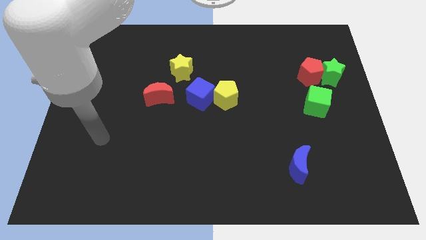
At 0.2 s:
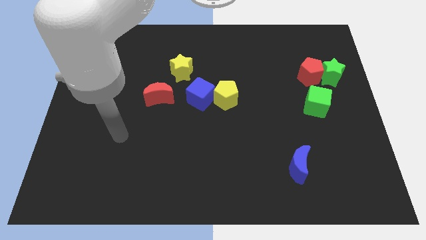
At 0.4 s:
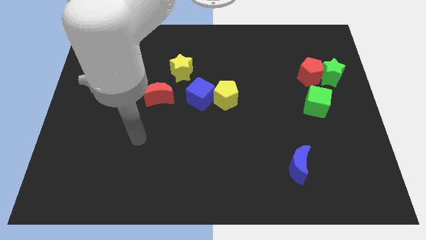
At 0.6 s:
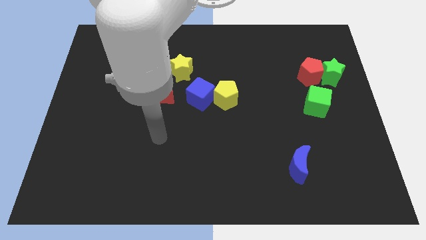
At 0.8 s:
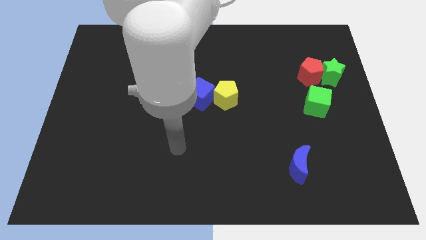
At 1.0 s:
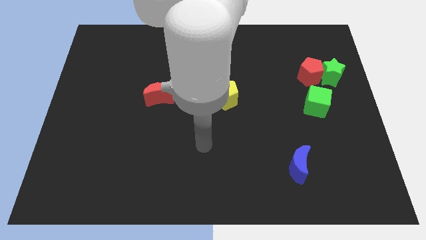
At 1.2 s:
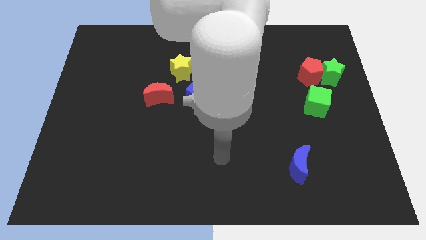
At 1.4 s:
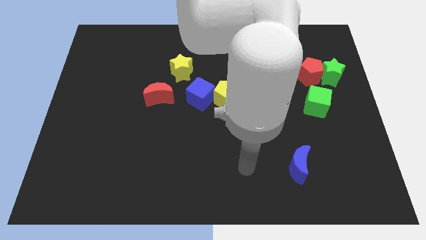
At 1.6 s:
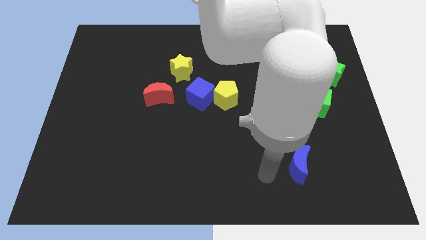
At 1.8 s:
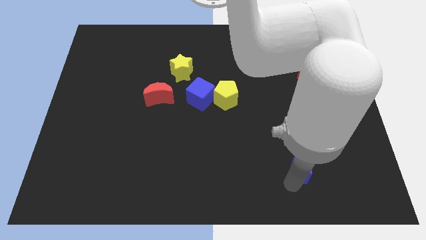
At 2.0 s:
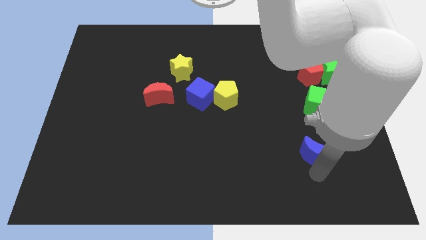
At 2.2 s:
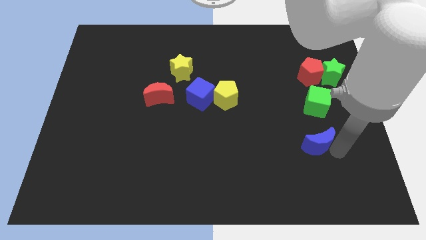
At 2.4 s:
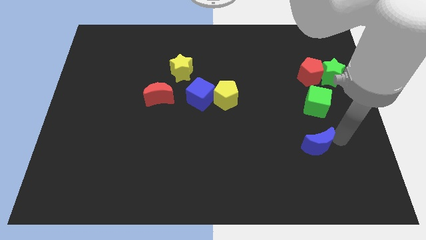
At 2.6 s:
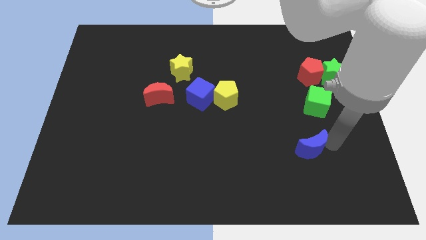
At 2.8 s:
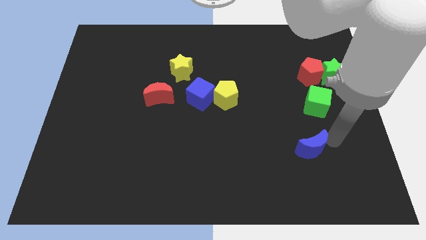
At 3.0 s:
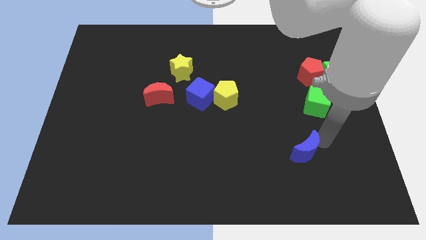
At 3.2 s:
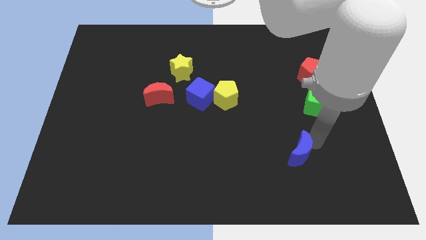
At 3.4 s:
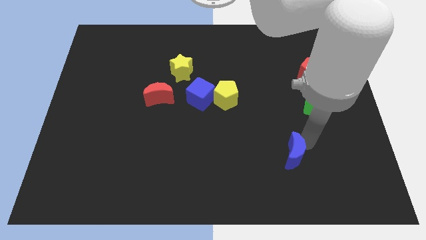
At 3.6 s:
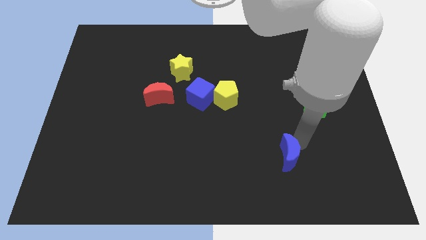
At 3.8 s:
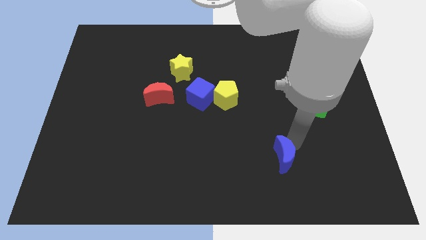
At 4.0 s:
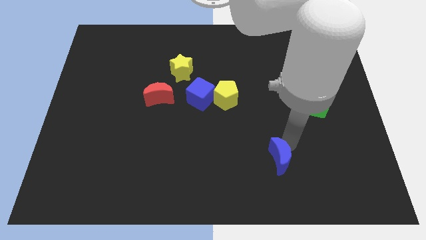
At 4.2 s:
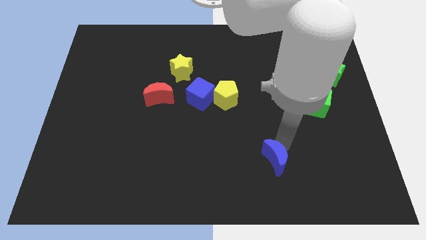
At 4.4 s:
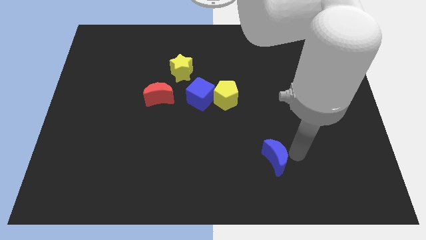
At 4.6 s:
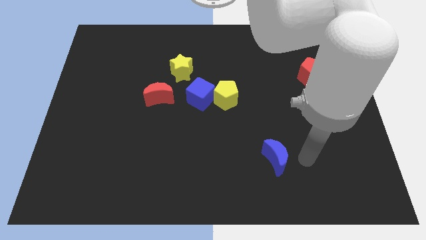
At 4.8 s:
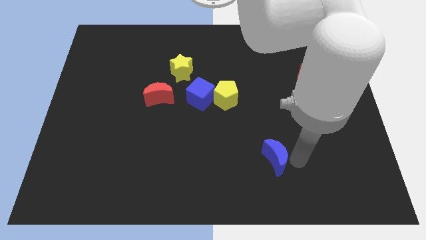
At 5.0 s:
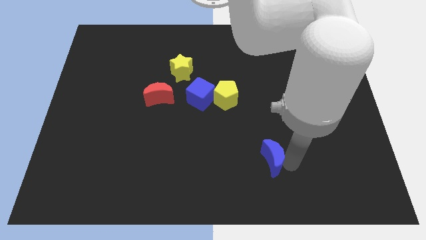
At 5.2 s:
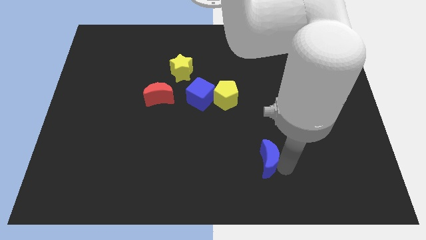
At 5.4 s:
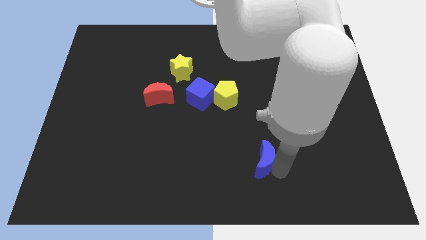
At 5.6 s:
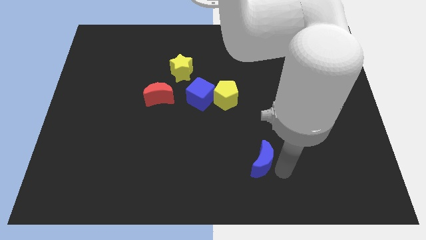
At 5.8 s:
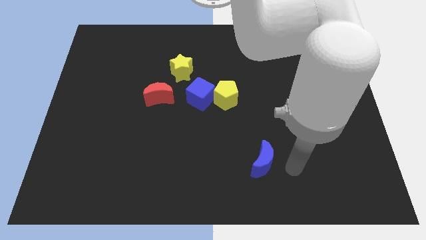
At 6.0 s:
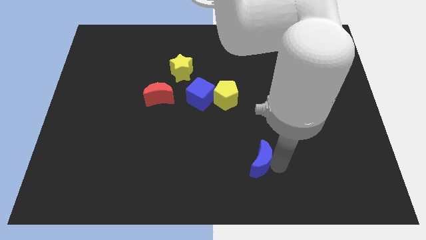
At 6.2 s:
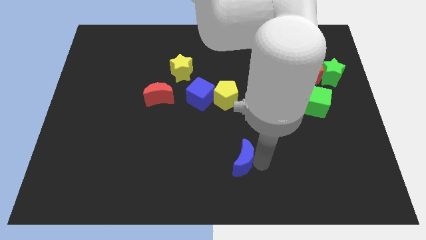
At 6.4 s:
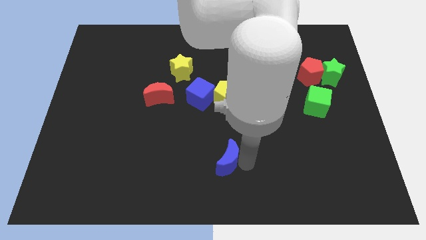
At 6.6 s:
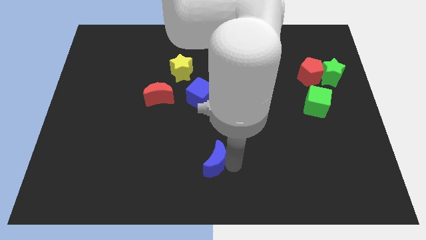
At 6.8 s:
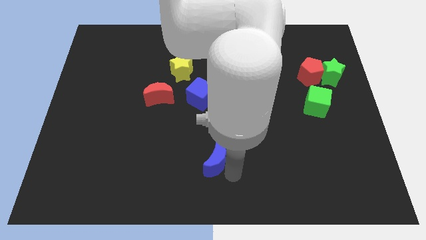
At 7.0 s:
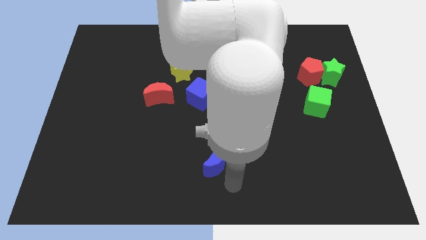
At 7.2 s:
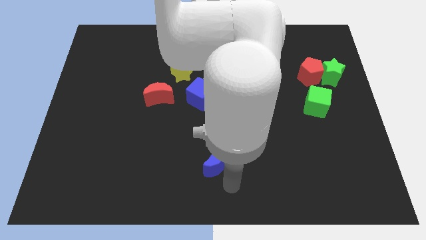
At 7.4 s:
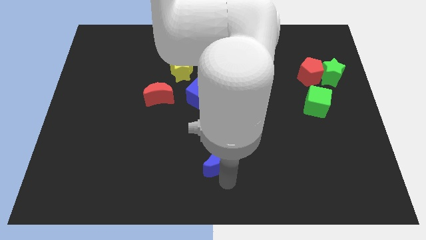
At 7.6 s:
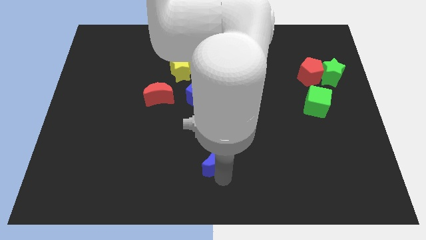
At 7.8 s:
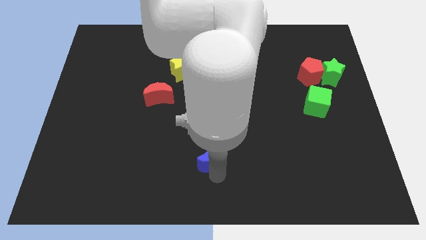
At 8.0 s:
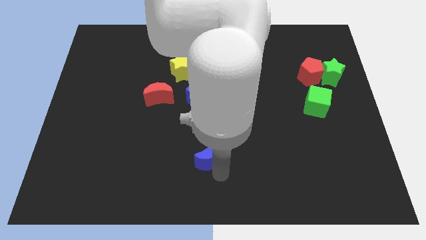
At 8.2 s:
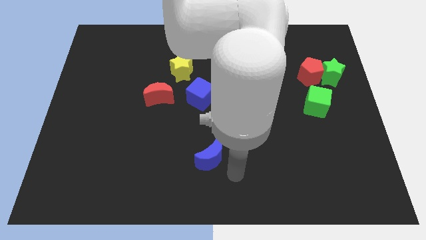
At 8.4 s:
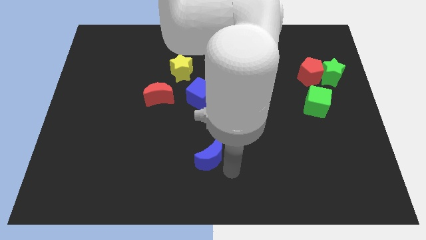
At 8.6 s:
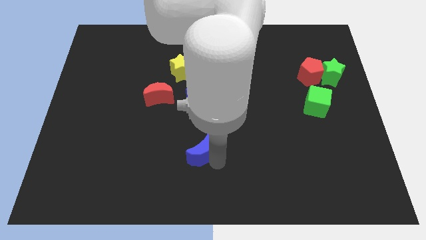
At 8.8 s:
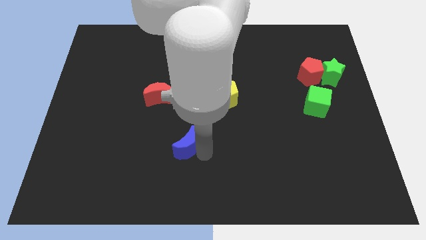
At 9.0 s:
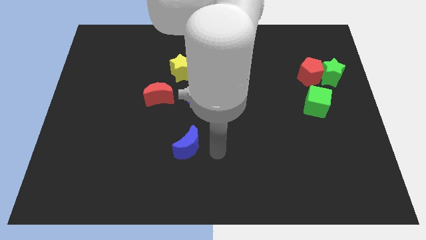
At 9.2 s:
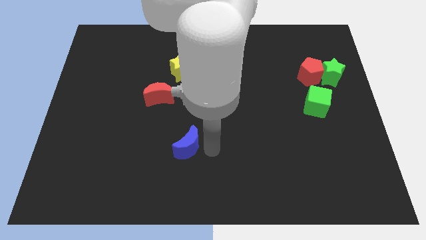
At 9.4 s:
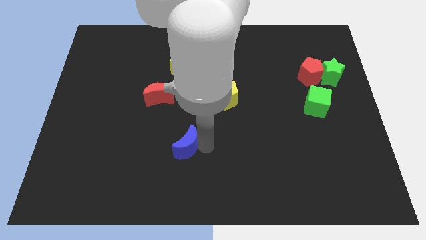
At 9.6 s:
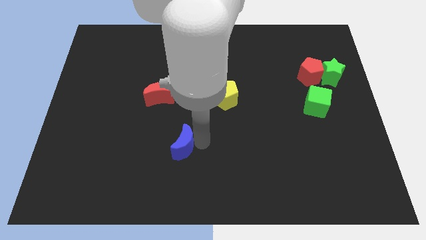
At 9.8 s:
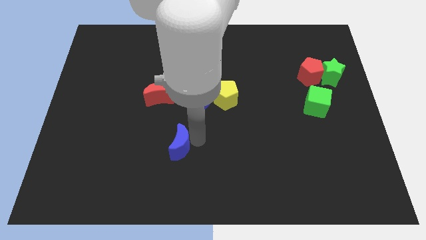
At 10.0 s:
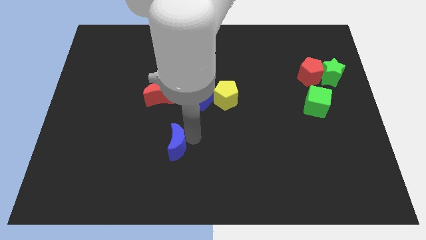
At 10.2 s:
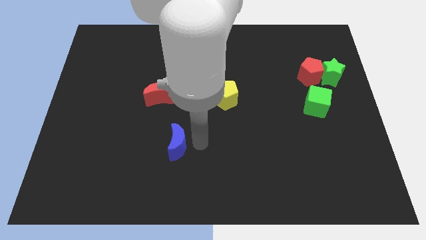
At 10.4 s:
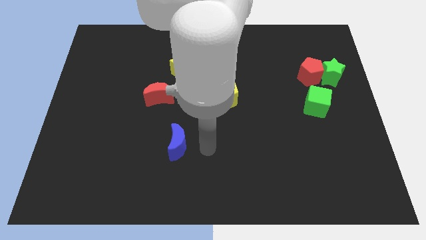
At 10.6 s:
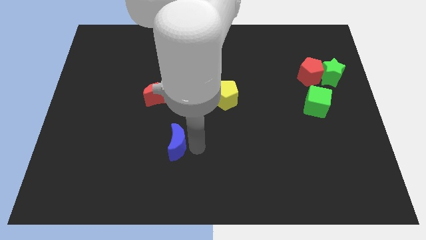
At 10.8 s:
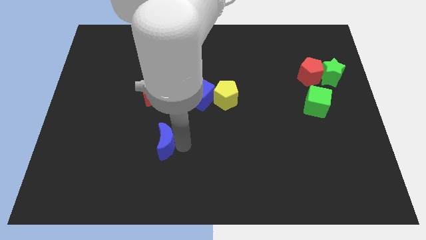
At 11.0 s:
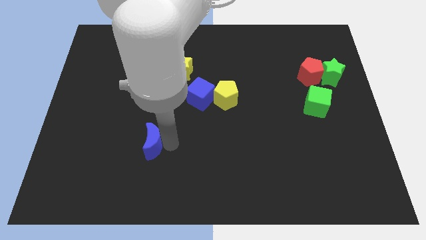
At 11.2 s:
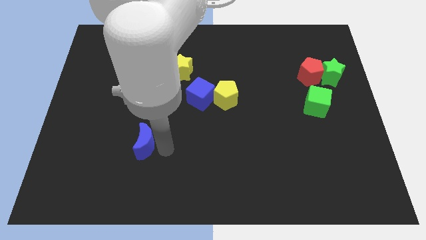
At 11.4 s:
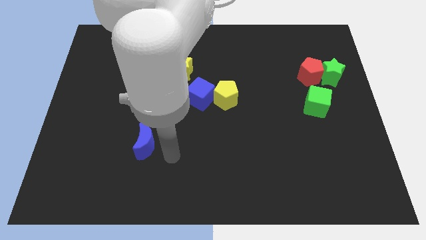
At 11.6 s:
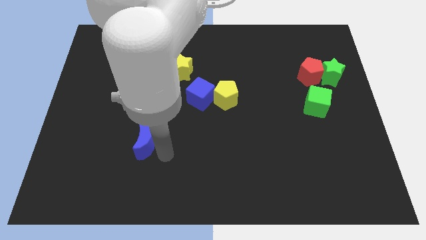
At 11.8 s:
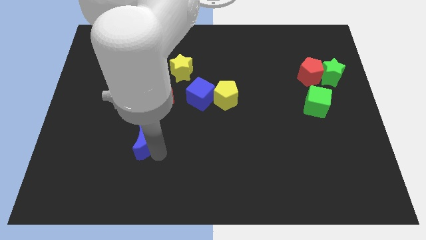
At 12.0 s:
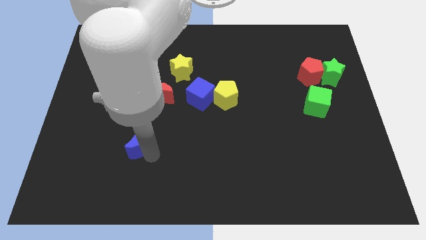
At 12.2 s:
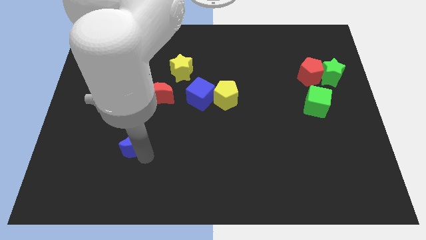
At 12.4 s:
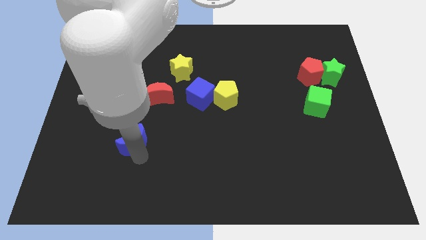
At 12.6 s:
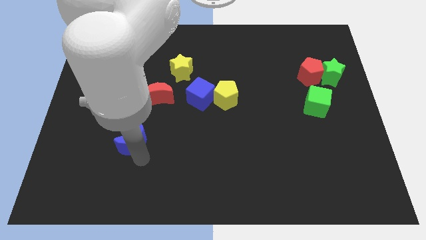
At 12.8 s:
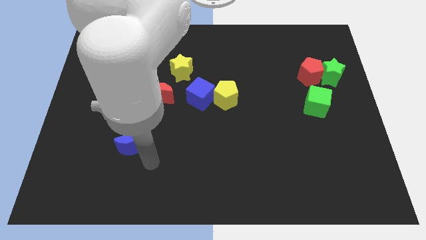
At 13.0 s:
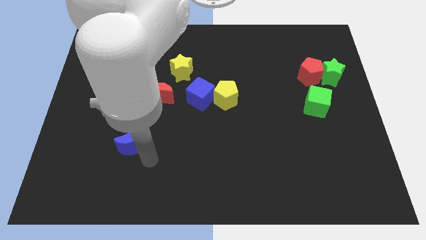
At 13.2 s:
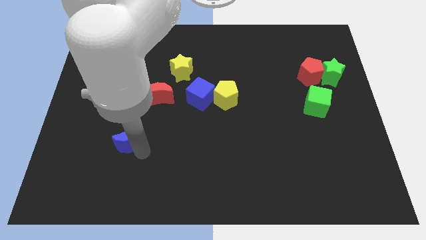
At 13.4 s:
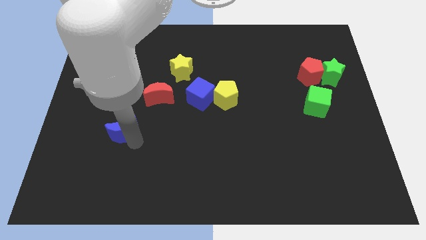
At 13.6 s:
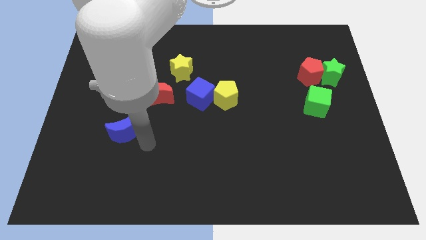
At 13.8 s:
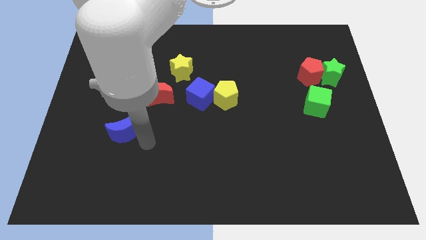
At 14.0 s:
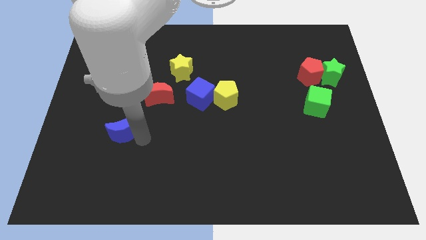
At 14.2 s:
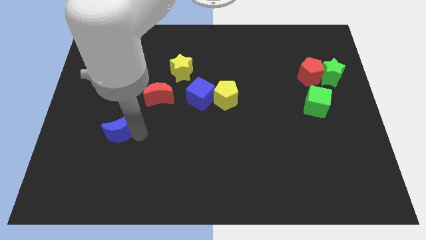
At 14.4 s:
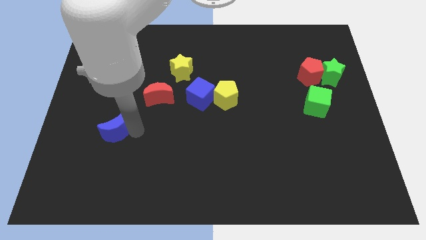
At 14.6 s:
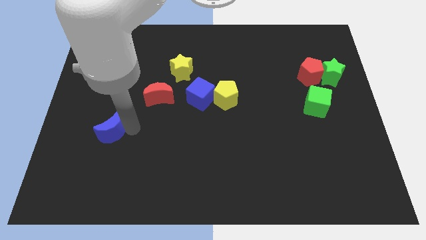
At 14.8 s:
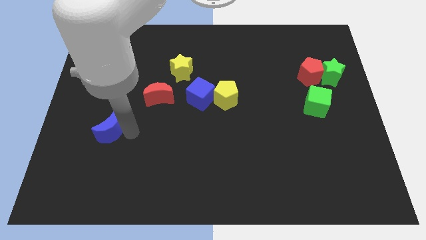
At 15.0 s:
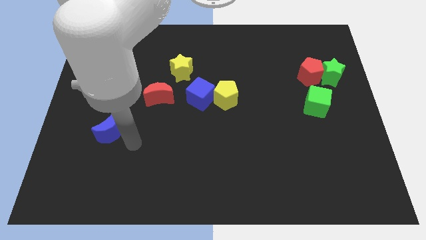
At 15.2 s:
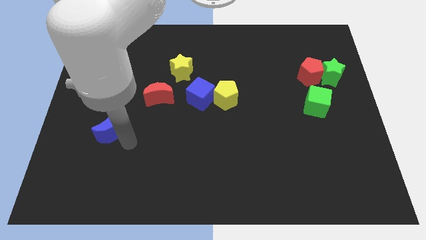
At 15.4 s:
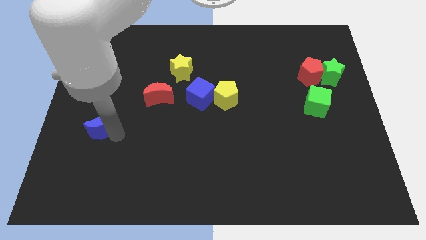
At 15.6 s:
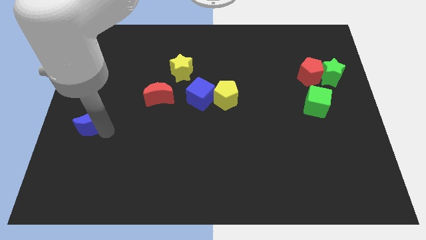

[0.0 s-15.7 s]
slide the blue moon to the center left
